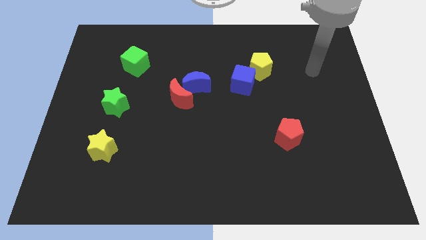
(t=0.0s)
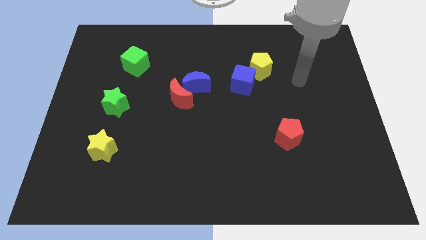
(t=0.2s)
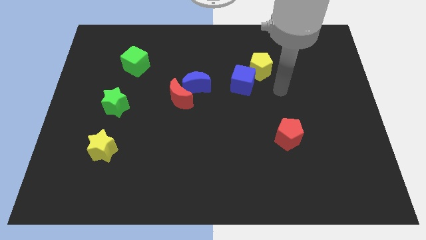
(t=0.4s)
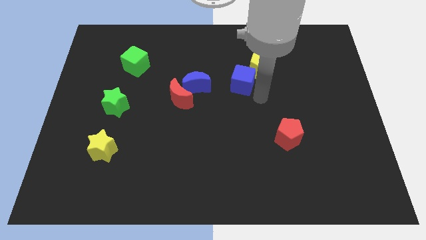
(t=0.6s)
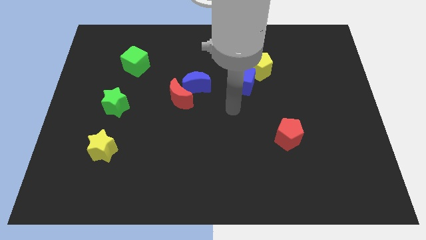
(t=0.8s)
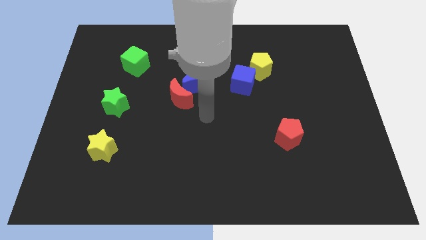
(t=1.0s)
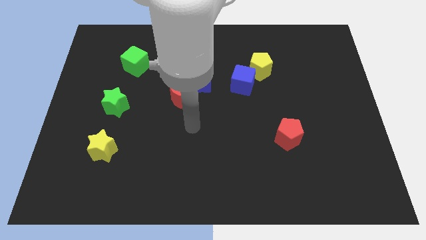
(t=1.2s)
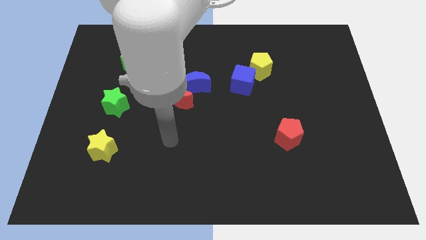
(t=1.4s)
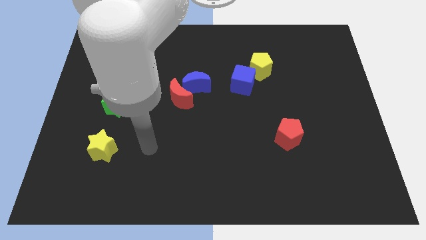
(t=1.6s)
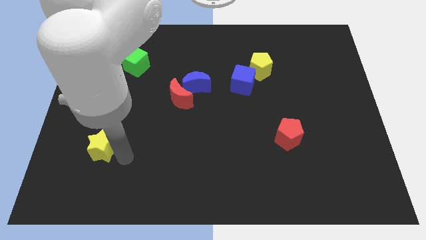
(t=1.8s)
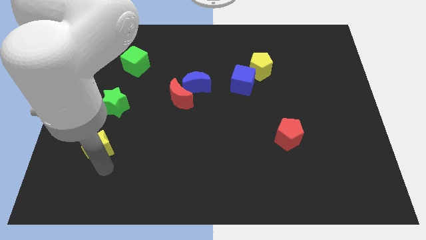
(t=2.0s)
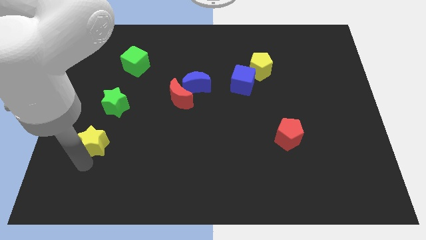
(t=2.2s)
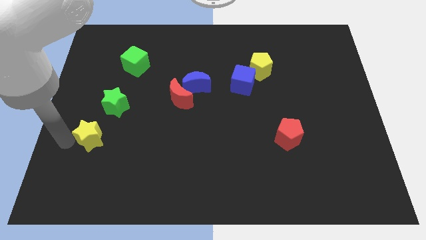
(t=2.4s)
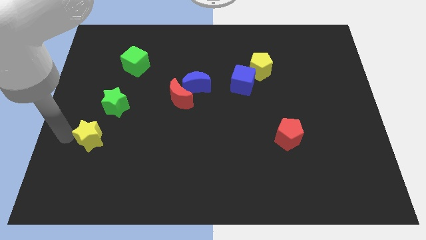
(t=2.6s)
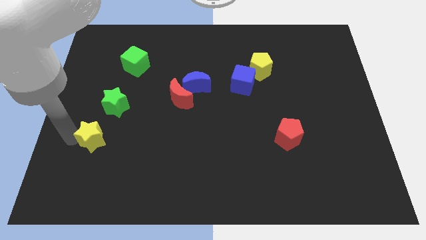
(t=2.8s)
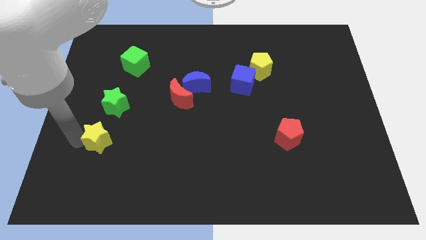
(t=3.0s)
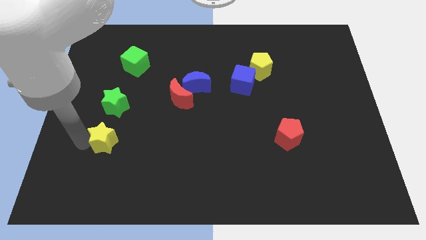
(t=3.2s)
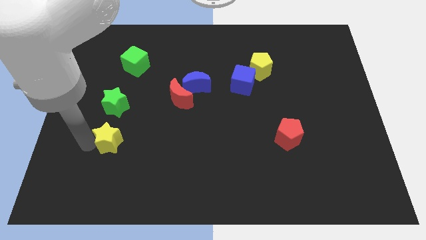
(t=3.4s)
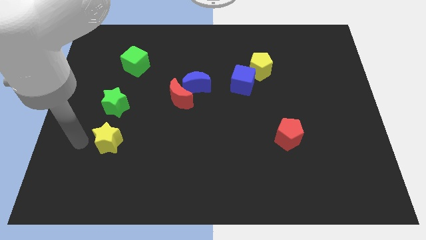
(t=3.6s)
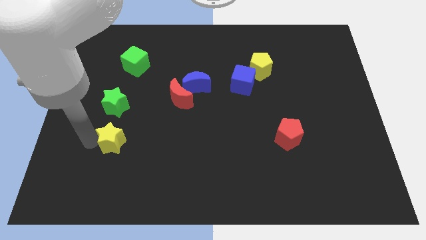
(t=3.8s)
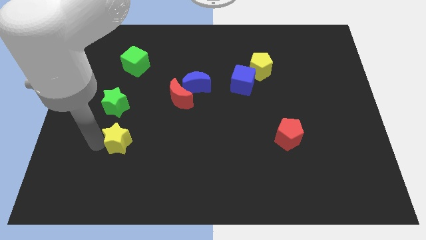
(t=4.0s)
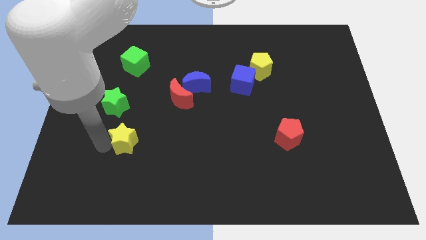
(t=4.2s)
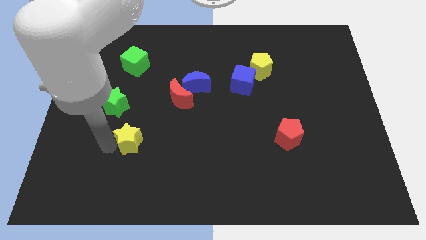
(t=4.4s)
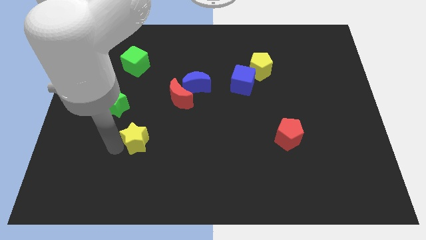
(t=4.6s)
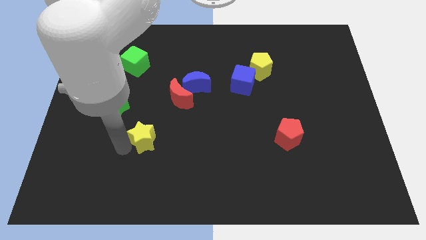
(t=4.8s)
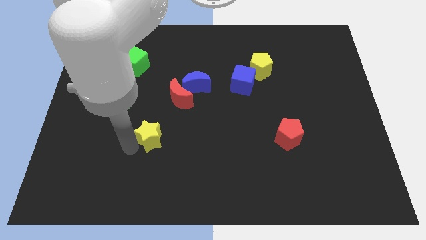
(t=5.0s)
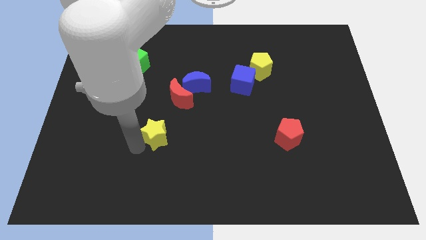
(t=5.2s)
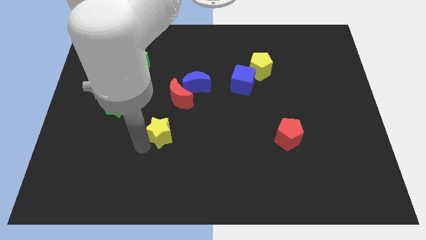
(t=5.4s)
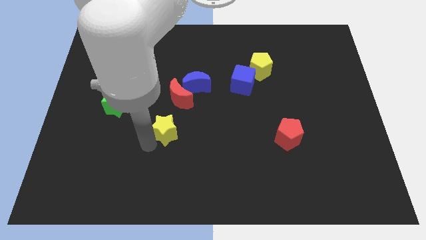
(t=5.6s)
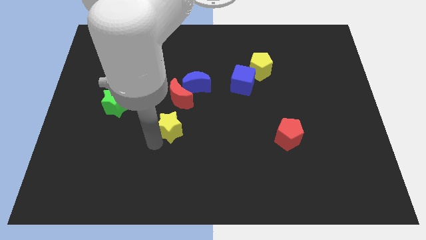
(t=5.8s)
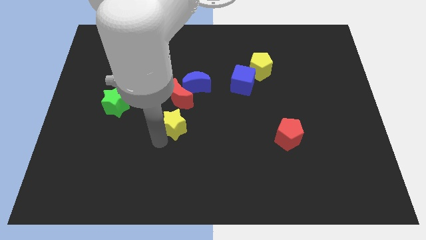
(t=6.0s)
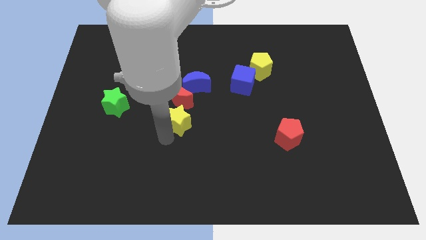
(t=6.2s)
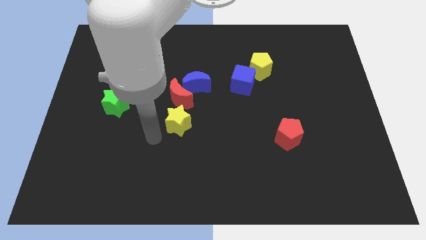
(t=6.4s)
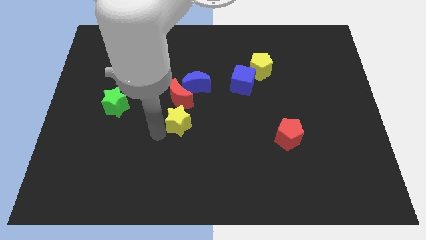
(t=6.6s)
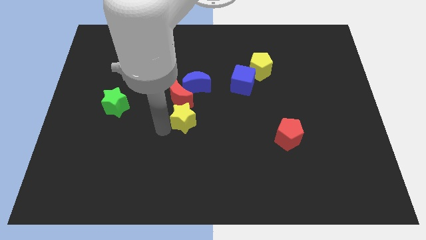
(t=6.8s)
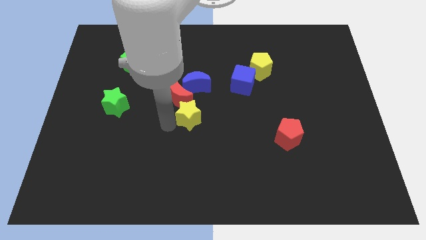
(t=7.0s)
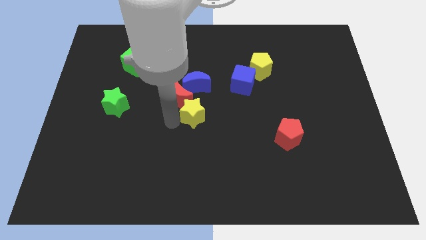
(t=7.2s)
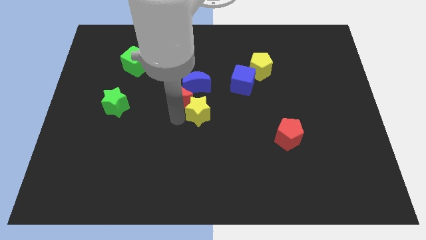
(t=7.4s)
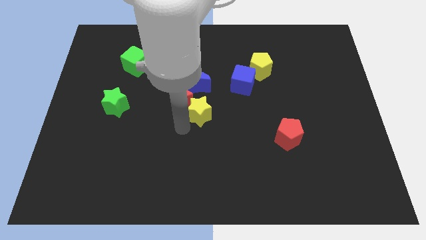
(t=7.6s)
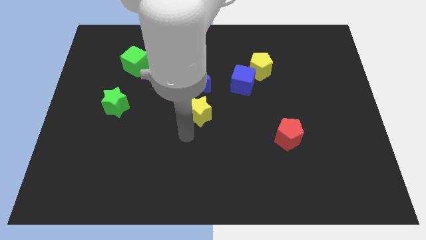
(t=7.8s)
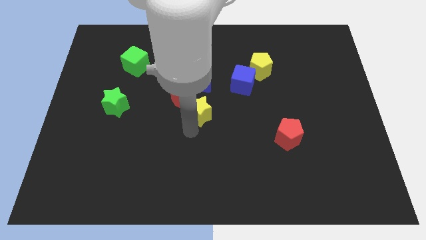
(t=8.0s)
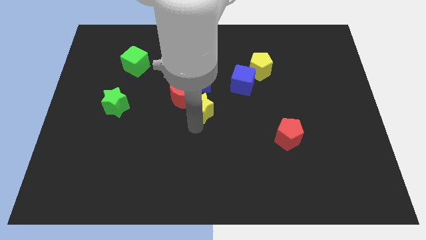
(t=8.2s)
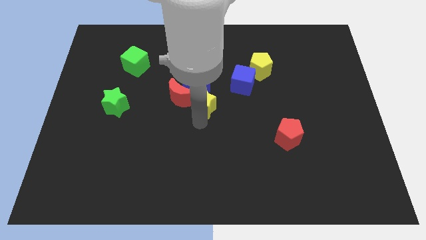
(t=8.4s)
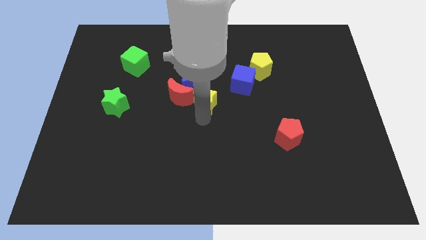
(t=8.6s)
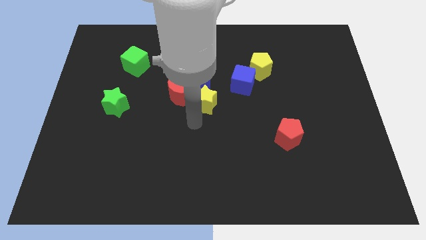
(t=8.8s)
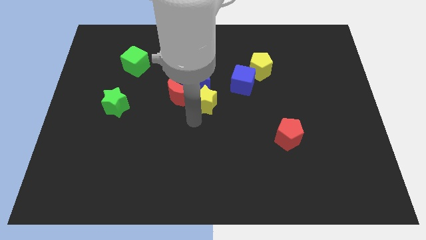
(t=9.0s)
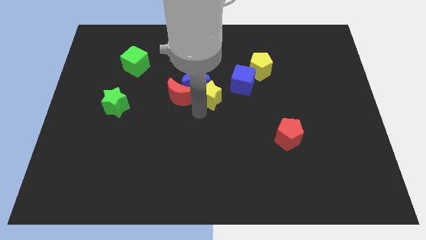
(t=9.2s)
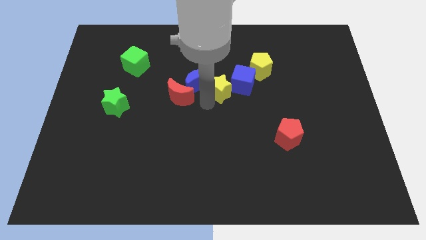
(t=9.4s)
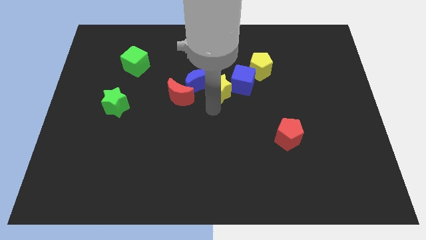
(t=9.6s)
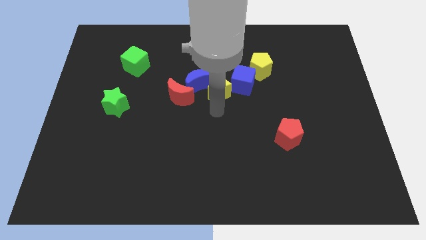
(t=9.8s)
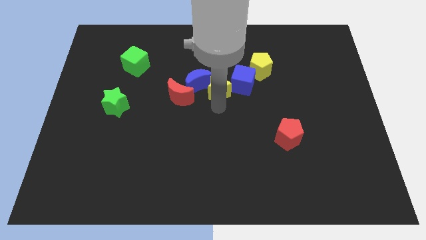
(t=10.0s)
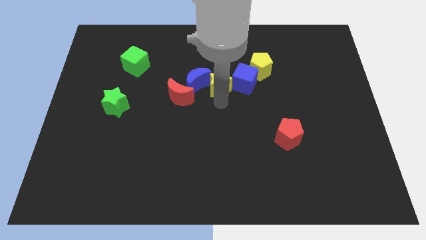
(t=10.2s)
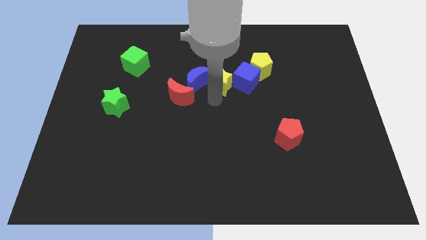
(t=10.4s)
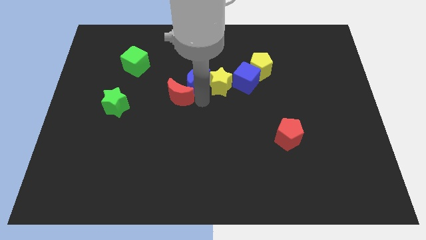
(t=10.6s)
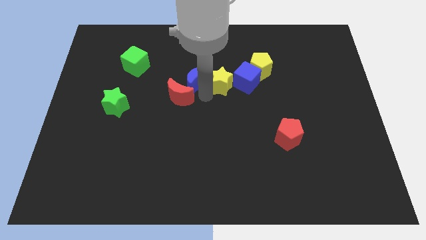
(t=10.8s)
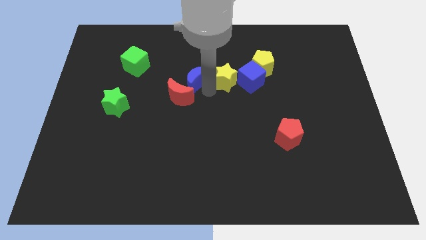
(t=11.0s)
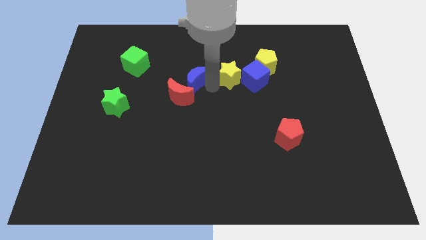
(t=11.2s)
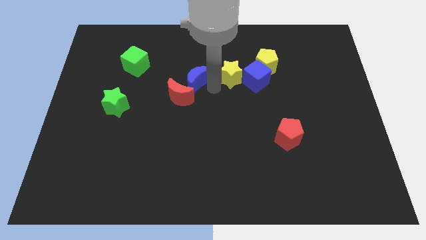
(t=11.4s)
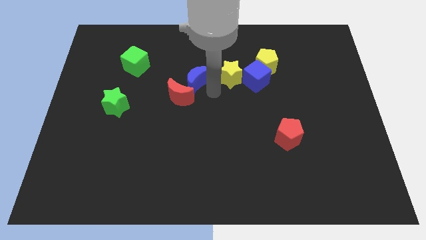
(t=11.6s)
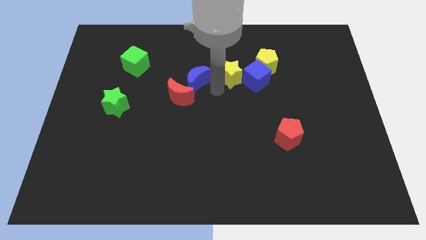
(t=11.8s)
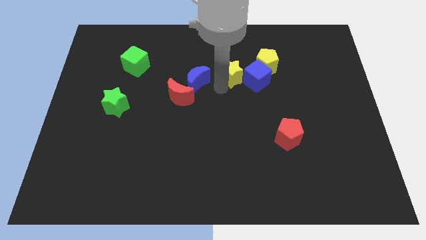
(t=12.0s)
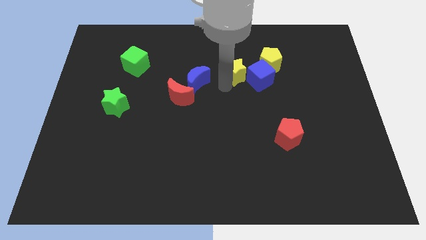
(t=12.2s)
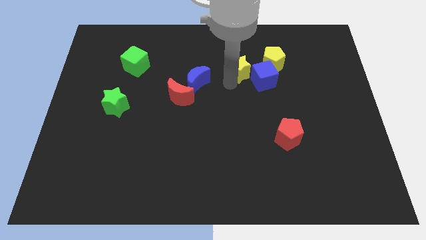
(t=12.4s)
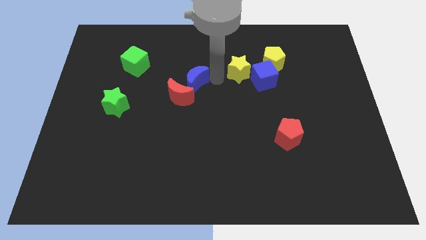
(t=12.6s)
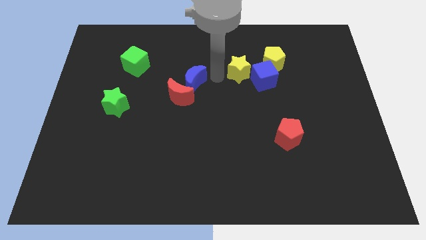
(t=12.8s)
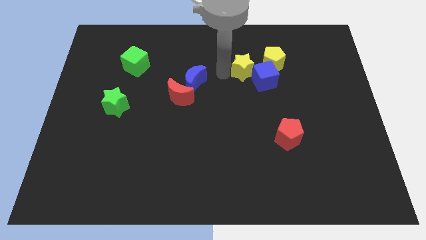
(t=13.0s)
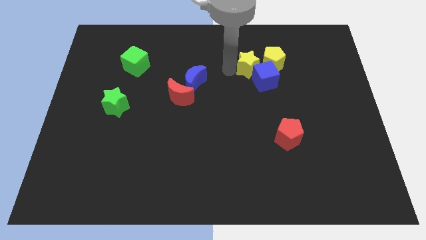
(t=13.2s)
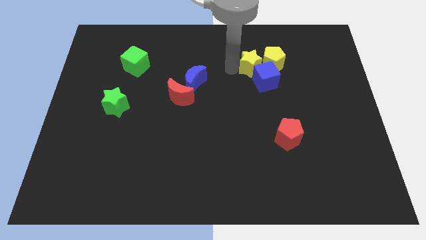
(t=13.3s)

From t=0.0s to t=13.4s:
move the yellow star to the yellow pentagon

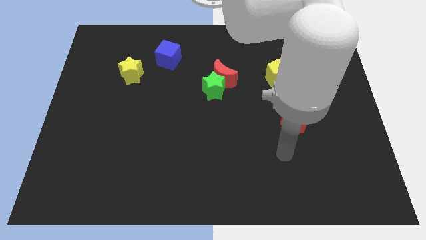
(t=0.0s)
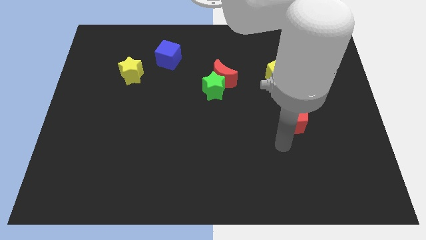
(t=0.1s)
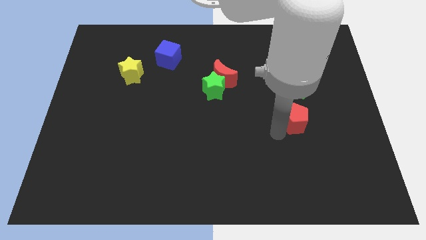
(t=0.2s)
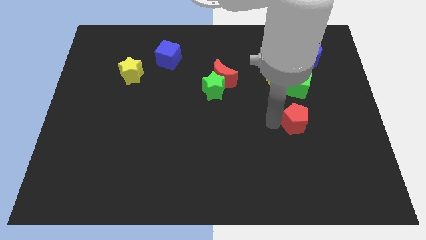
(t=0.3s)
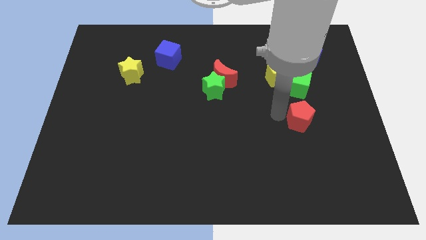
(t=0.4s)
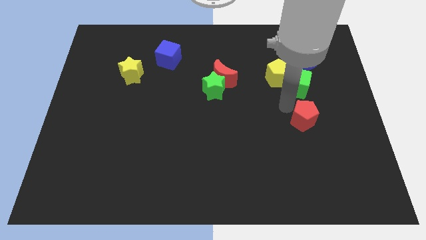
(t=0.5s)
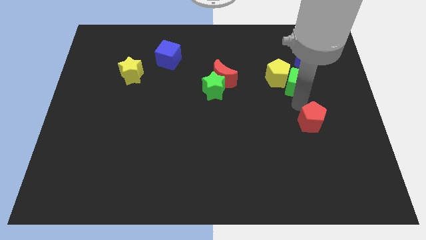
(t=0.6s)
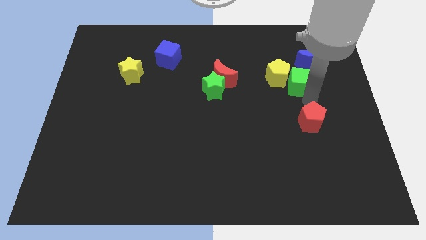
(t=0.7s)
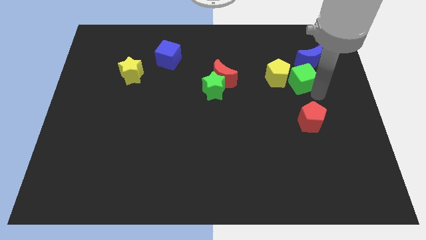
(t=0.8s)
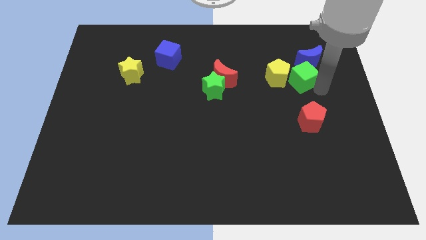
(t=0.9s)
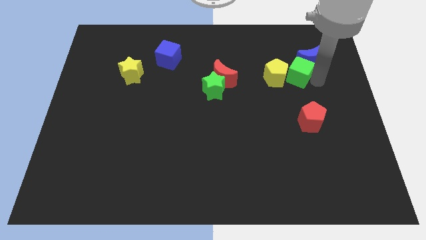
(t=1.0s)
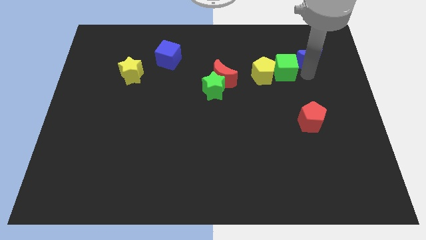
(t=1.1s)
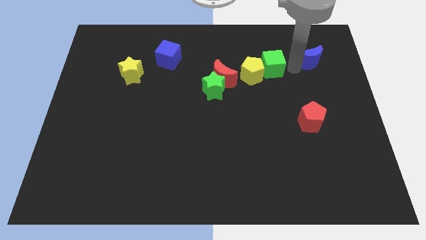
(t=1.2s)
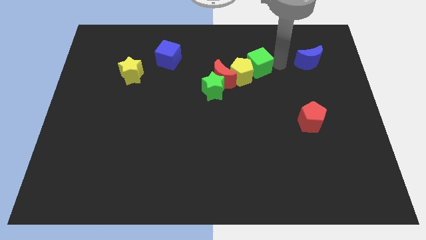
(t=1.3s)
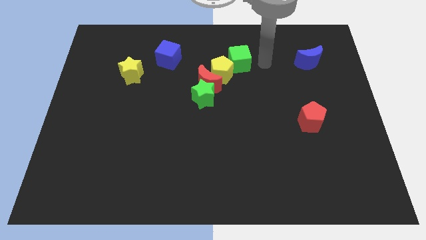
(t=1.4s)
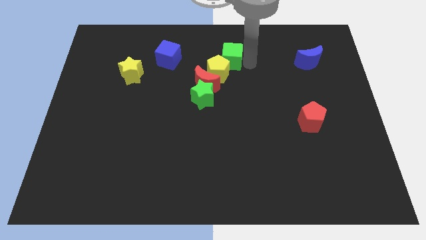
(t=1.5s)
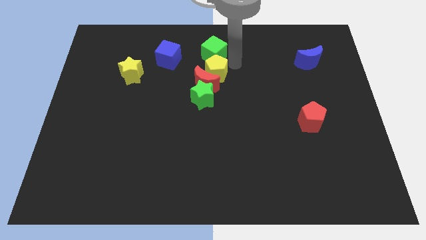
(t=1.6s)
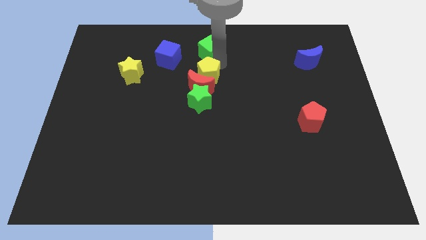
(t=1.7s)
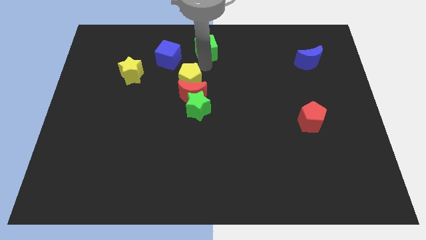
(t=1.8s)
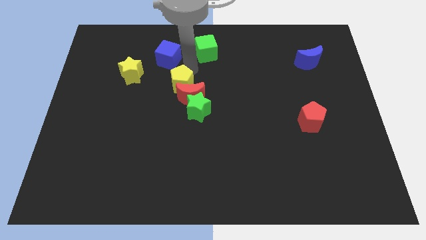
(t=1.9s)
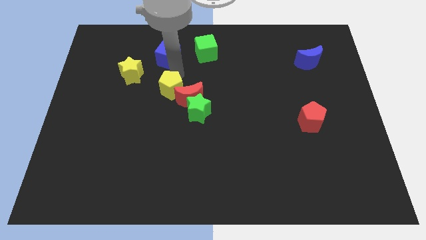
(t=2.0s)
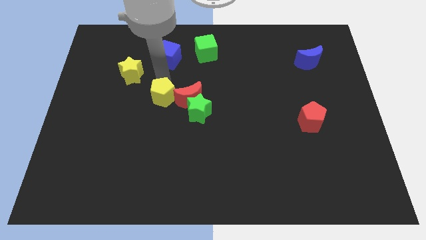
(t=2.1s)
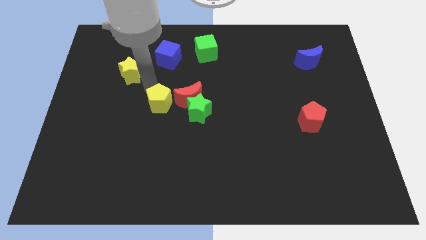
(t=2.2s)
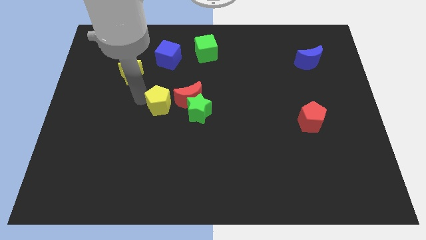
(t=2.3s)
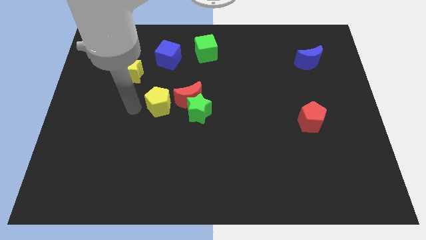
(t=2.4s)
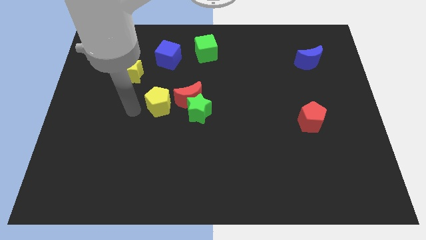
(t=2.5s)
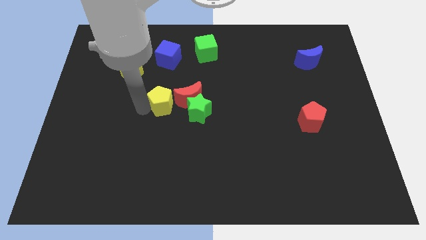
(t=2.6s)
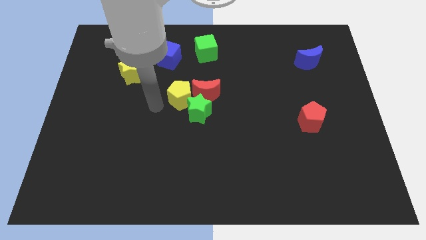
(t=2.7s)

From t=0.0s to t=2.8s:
move the yellow pentagon to the green star
